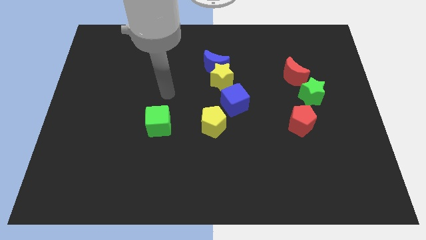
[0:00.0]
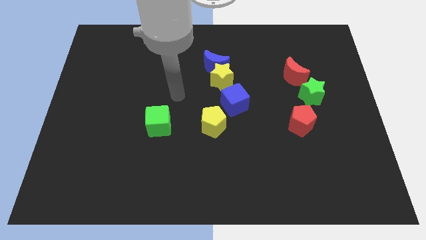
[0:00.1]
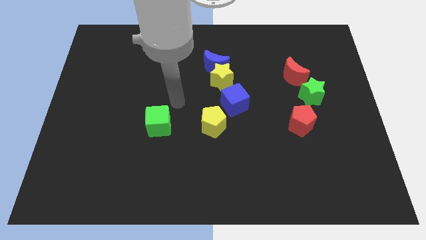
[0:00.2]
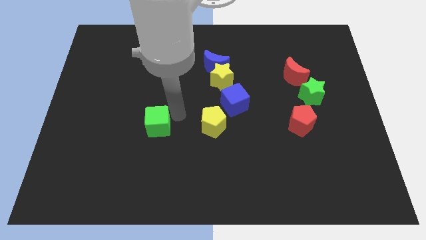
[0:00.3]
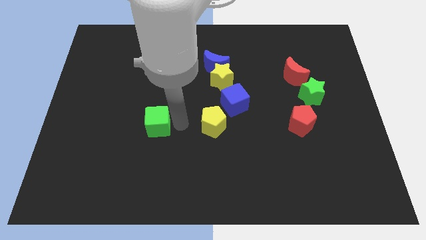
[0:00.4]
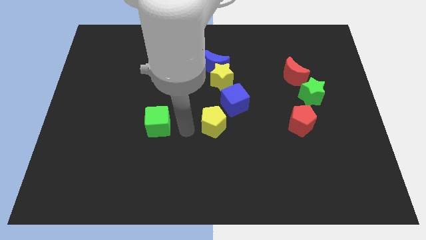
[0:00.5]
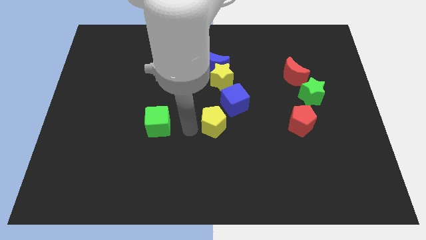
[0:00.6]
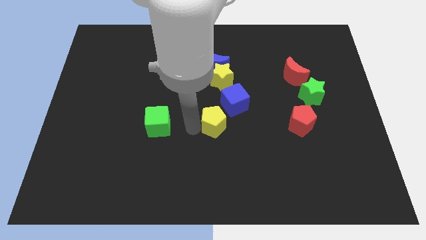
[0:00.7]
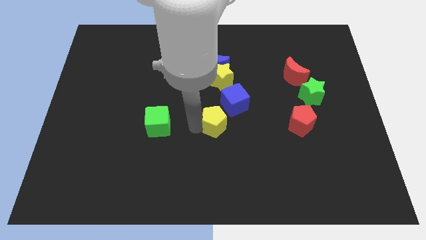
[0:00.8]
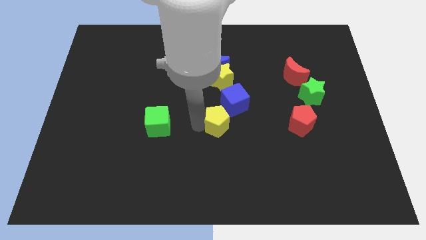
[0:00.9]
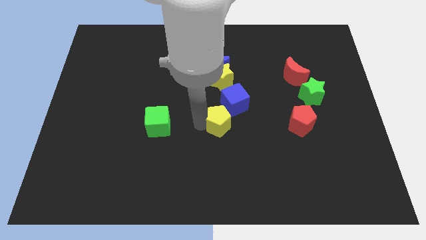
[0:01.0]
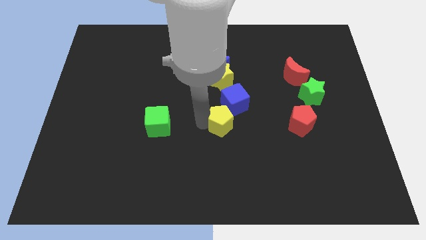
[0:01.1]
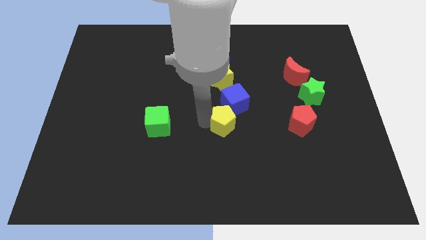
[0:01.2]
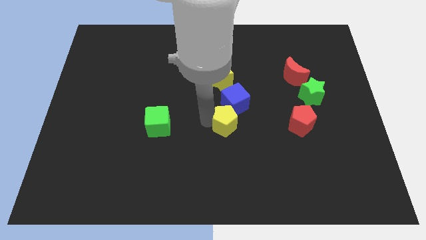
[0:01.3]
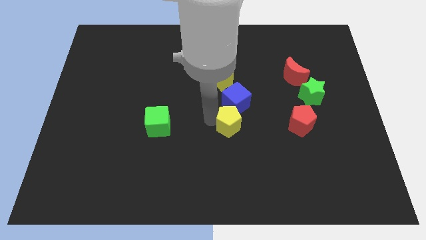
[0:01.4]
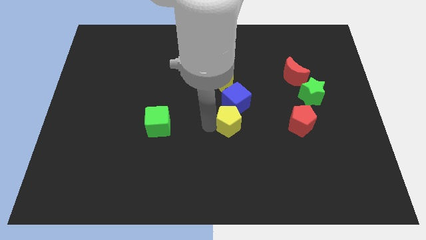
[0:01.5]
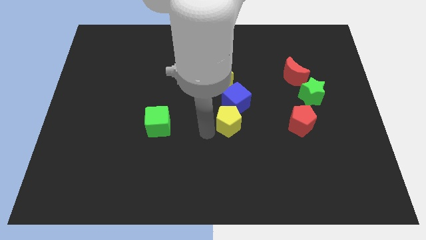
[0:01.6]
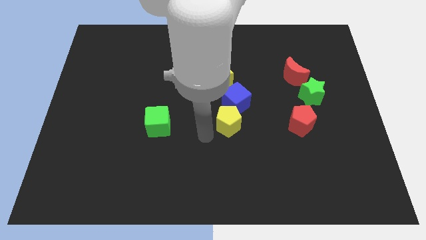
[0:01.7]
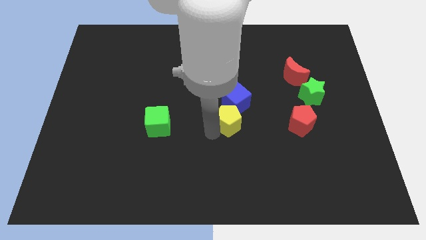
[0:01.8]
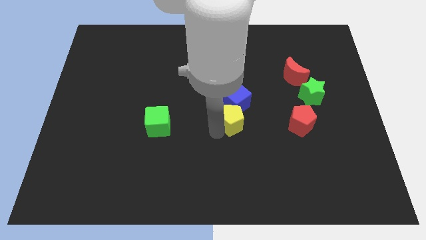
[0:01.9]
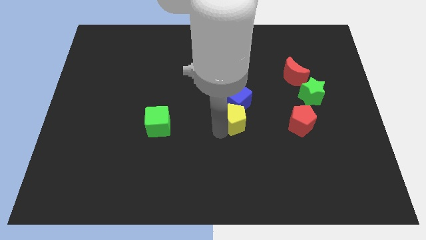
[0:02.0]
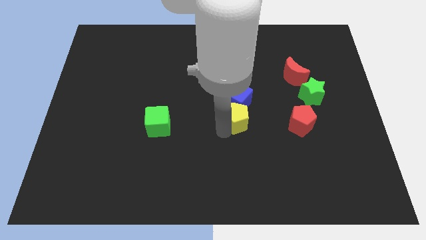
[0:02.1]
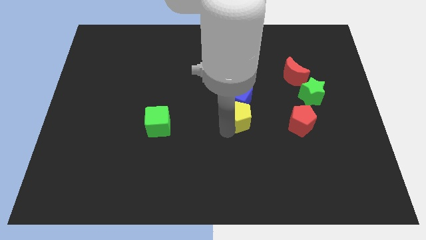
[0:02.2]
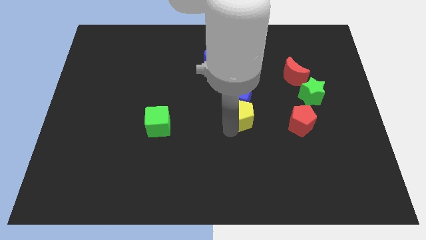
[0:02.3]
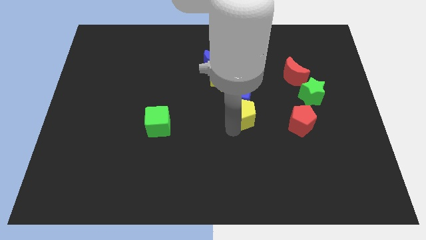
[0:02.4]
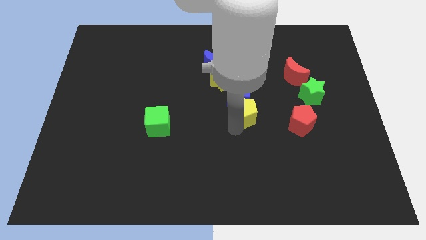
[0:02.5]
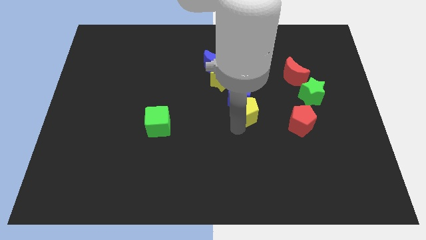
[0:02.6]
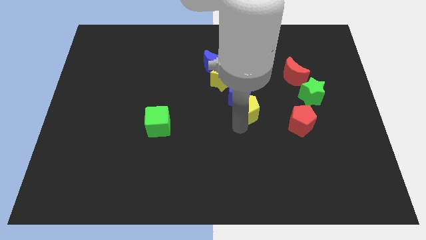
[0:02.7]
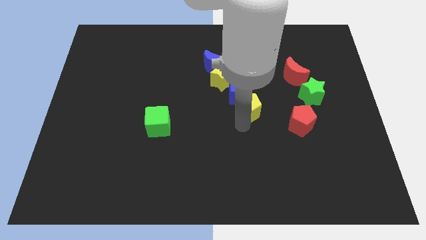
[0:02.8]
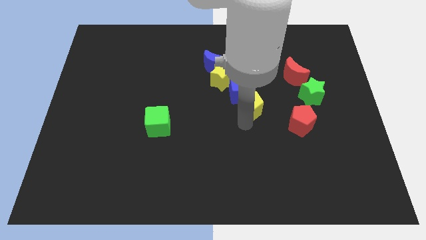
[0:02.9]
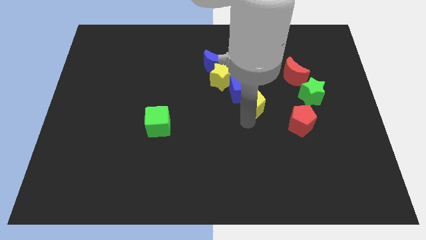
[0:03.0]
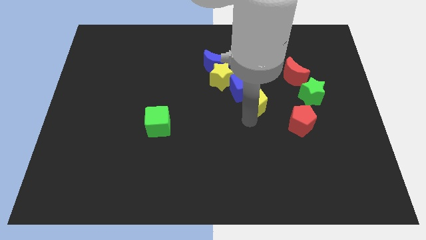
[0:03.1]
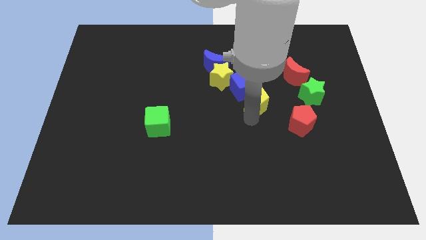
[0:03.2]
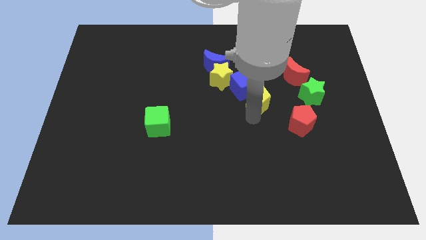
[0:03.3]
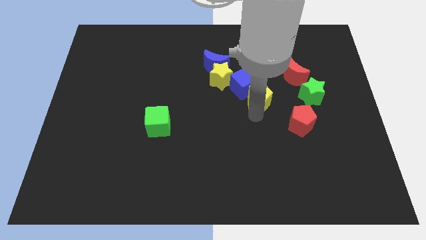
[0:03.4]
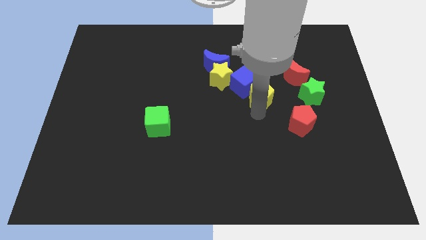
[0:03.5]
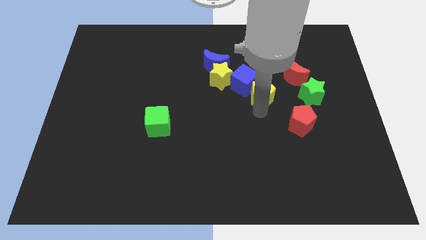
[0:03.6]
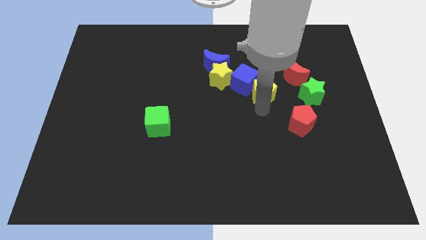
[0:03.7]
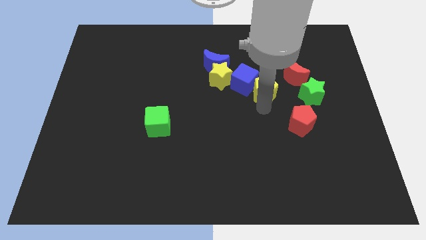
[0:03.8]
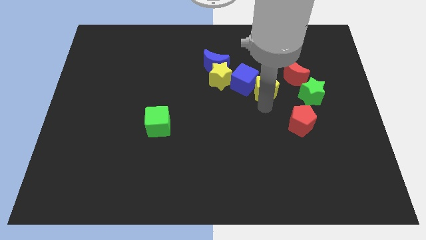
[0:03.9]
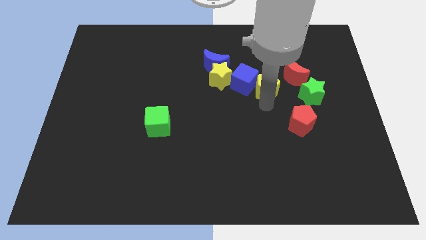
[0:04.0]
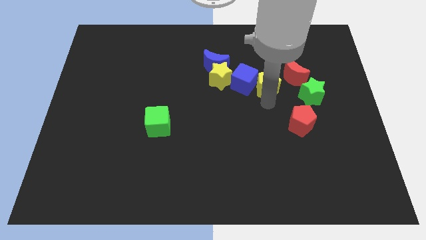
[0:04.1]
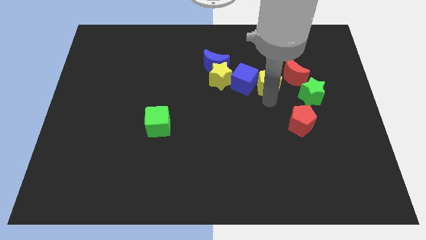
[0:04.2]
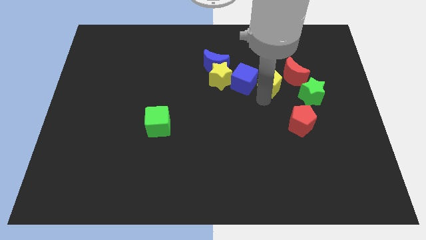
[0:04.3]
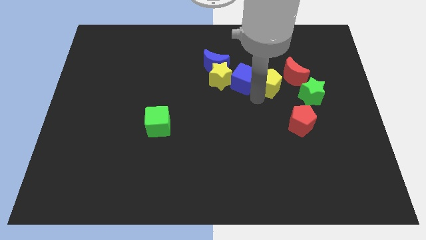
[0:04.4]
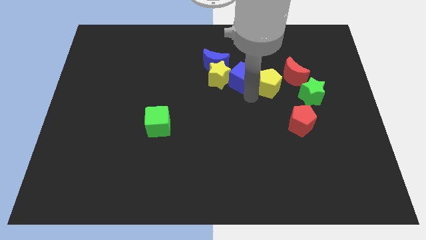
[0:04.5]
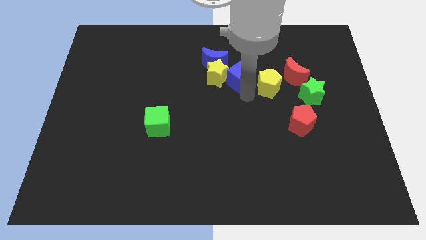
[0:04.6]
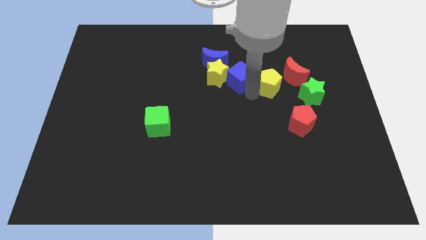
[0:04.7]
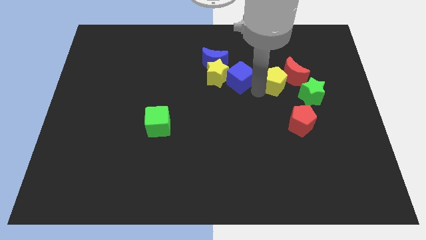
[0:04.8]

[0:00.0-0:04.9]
push the yellow pentagon to the top left side of the green star

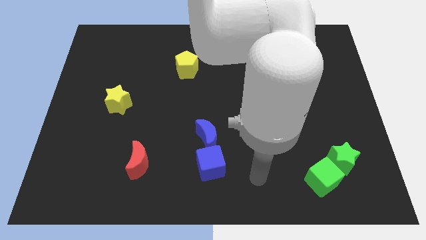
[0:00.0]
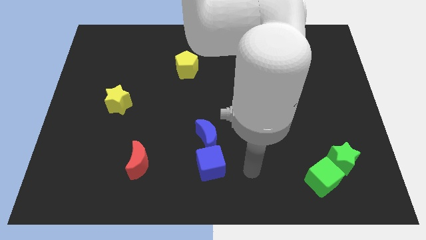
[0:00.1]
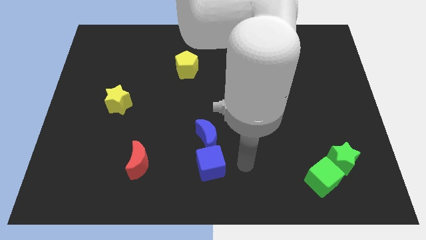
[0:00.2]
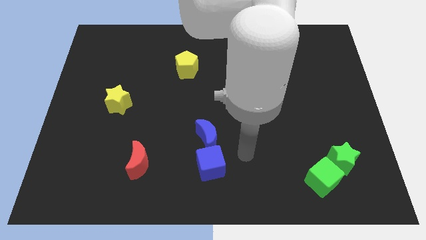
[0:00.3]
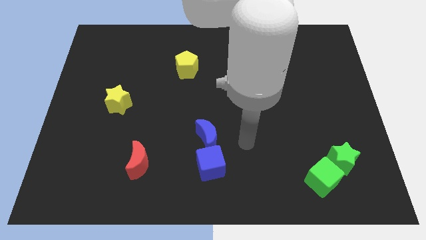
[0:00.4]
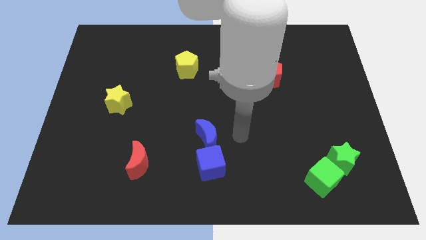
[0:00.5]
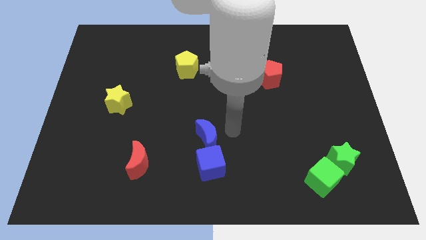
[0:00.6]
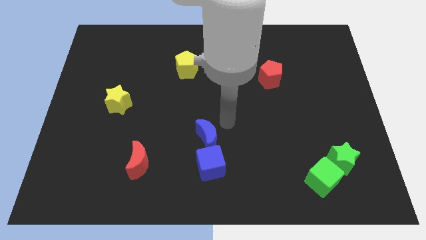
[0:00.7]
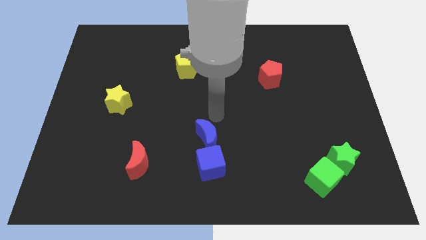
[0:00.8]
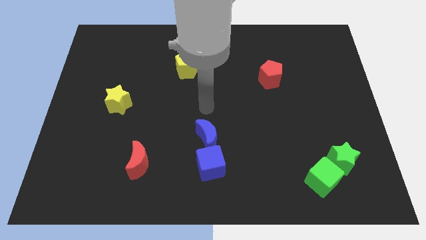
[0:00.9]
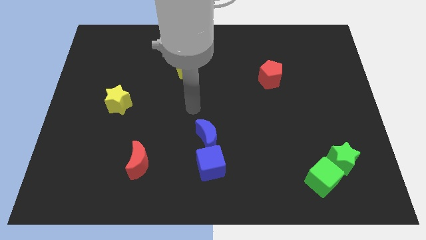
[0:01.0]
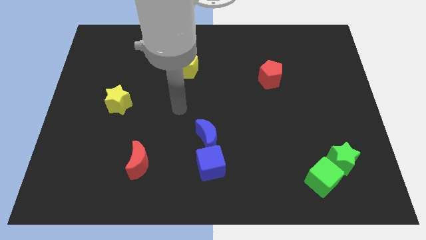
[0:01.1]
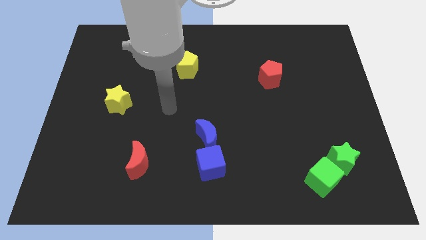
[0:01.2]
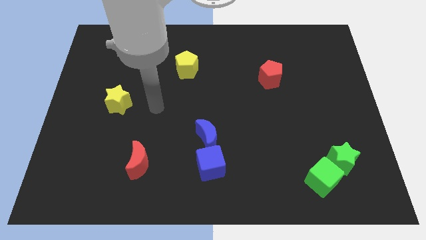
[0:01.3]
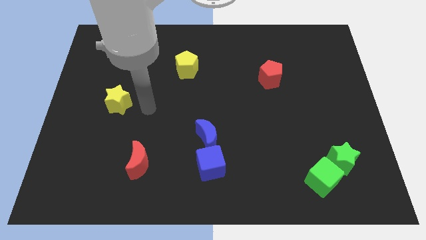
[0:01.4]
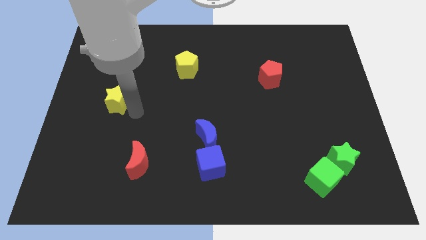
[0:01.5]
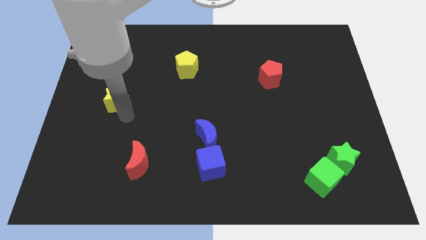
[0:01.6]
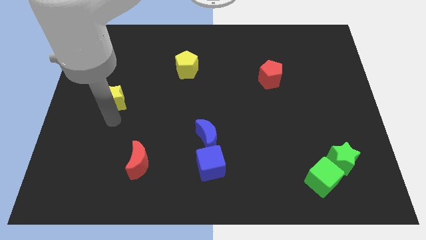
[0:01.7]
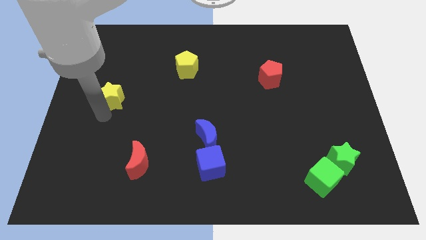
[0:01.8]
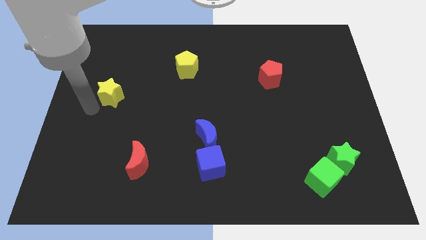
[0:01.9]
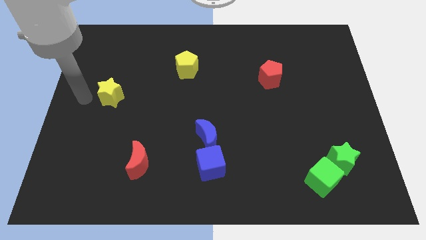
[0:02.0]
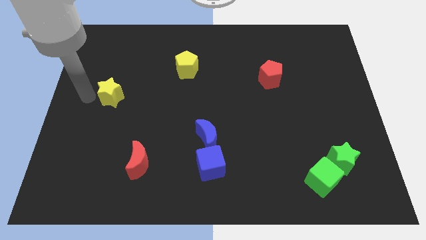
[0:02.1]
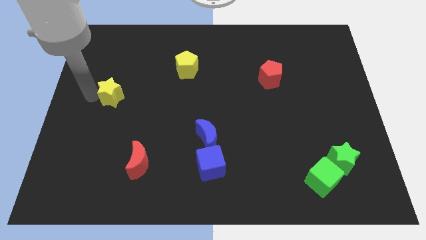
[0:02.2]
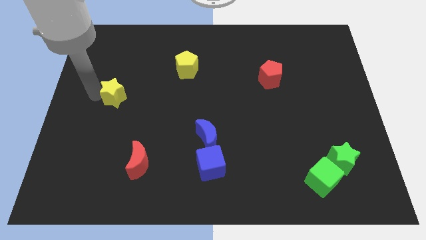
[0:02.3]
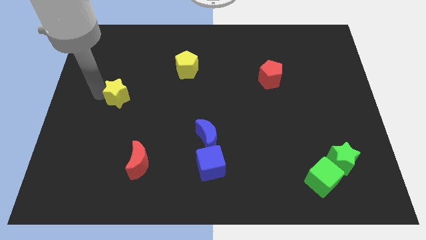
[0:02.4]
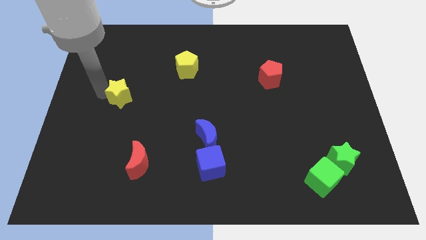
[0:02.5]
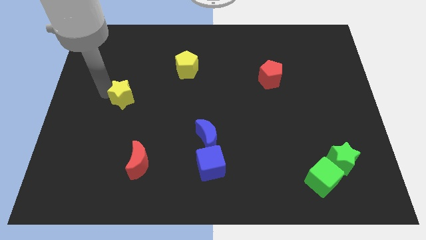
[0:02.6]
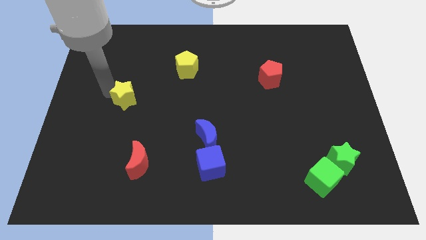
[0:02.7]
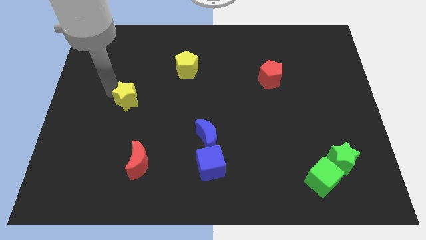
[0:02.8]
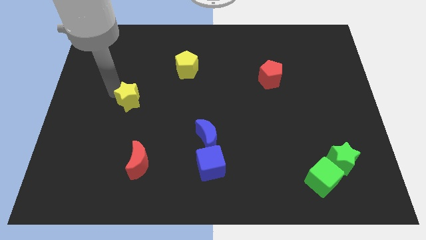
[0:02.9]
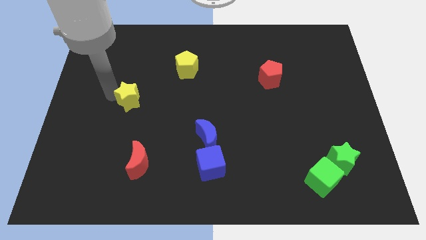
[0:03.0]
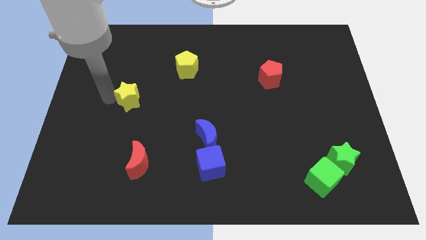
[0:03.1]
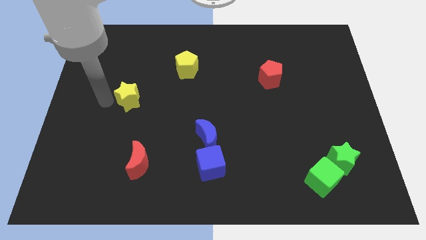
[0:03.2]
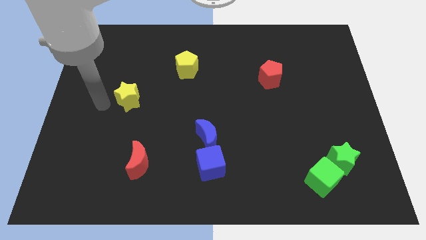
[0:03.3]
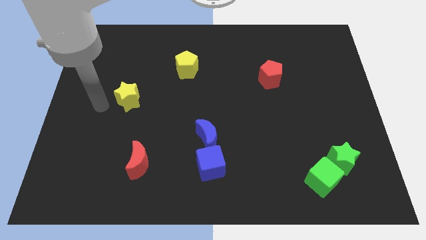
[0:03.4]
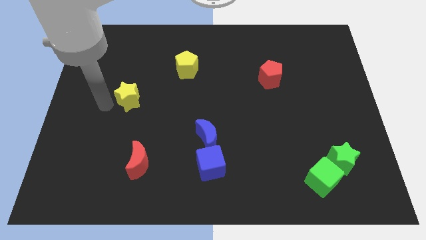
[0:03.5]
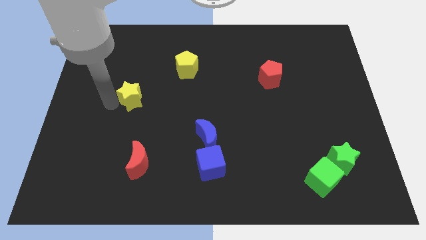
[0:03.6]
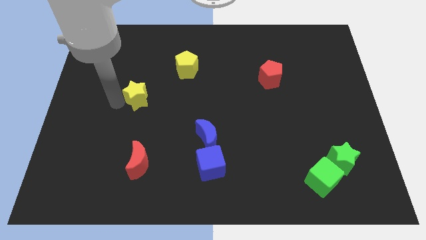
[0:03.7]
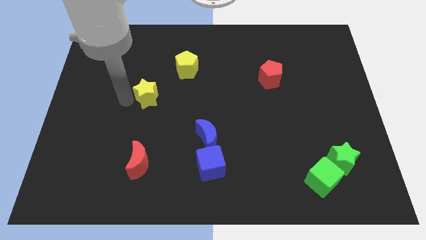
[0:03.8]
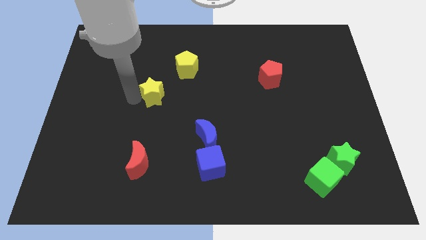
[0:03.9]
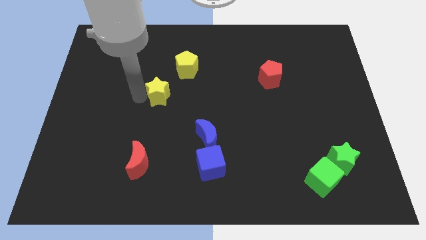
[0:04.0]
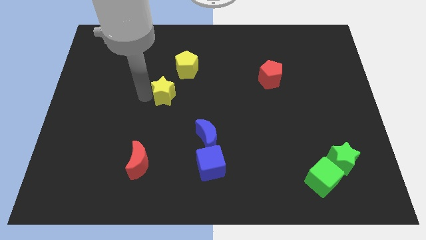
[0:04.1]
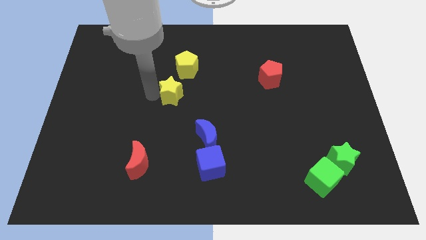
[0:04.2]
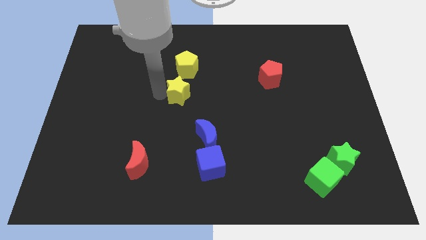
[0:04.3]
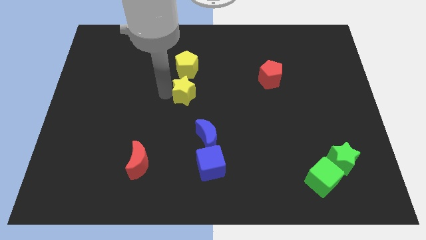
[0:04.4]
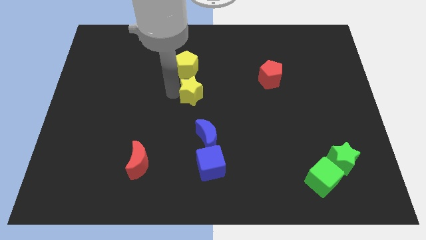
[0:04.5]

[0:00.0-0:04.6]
move the yellow star to the top of the blue moon
